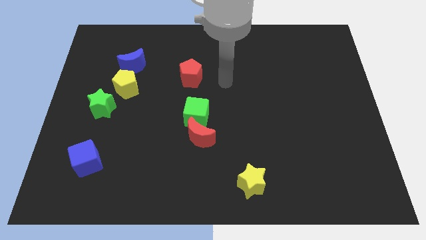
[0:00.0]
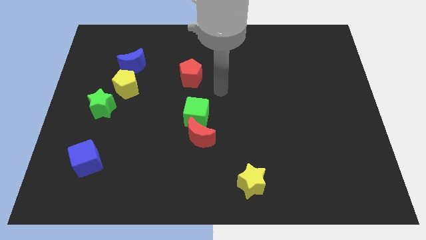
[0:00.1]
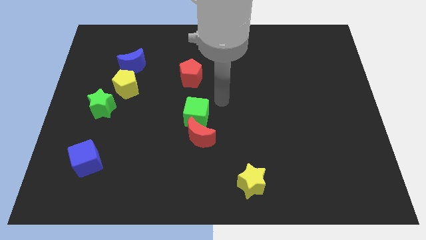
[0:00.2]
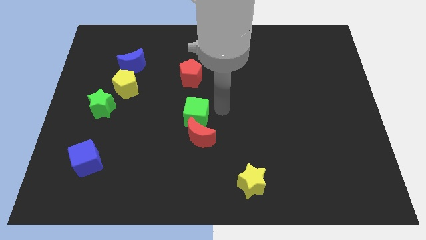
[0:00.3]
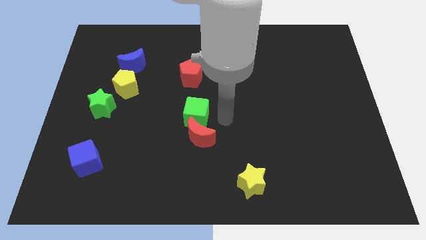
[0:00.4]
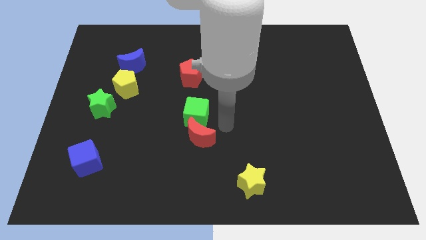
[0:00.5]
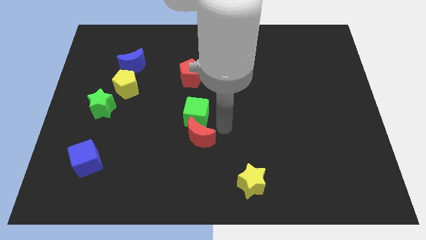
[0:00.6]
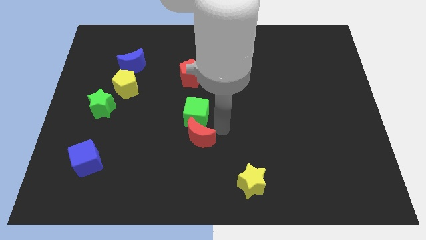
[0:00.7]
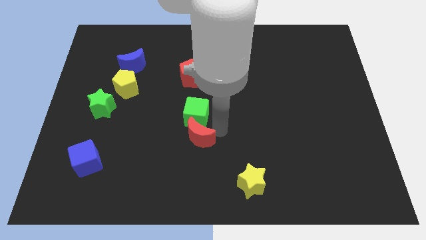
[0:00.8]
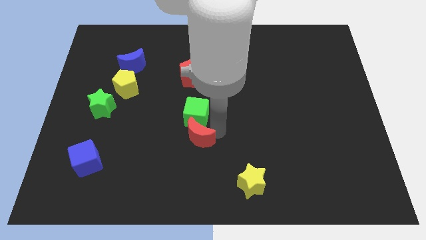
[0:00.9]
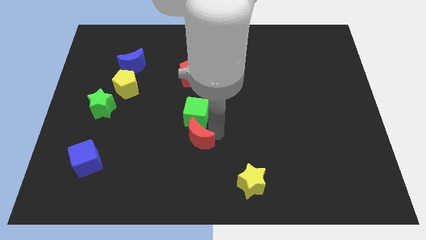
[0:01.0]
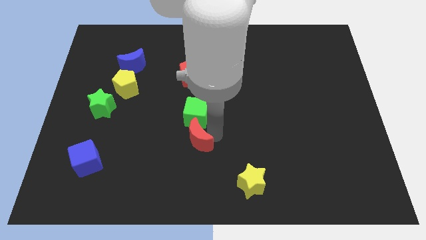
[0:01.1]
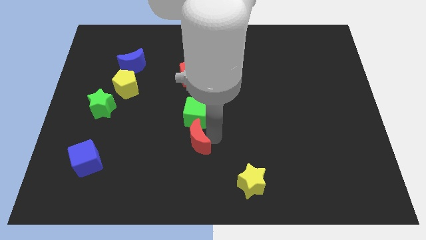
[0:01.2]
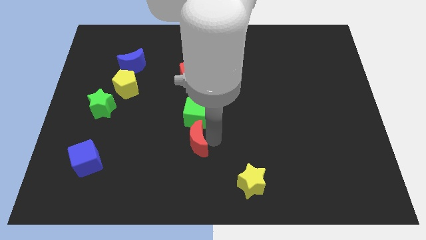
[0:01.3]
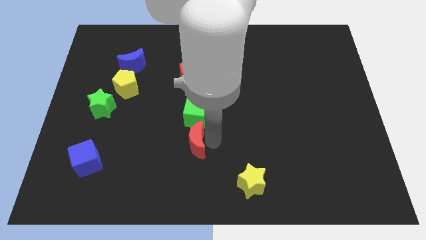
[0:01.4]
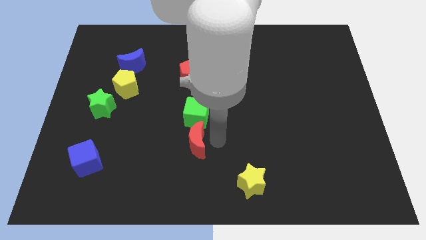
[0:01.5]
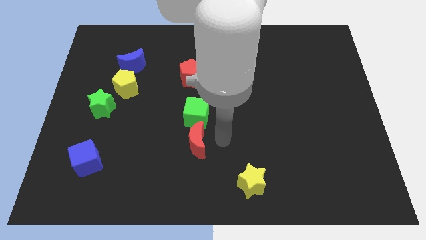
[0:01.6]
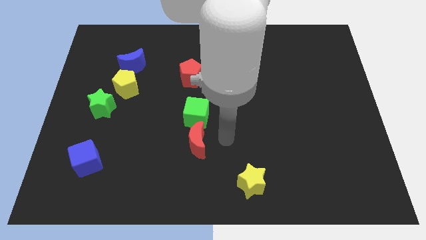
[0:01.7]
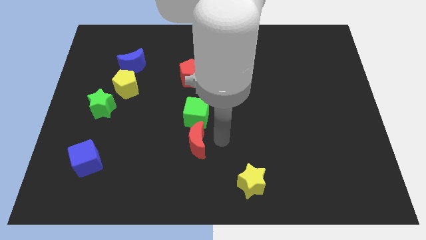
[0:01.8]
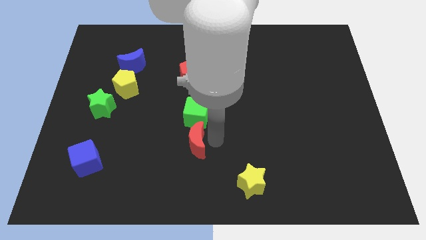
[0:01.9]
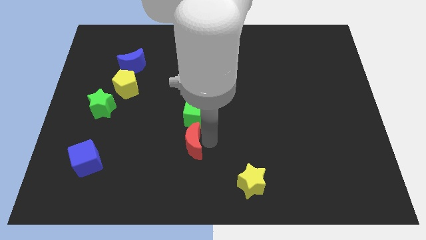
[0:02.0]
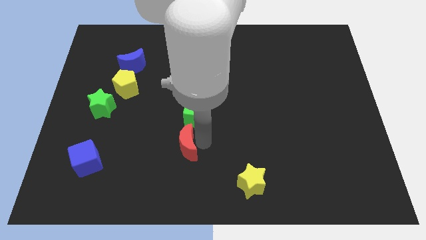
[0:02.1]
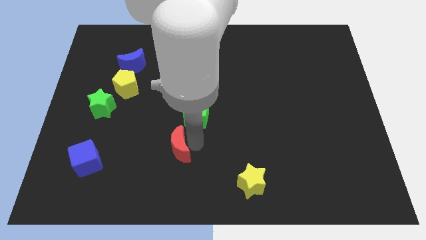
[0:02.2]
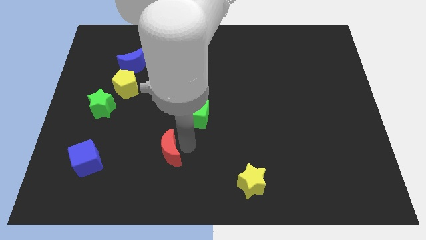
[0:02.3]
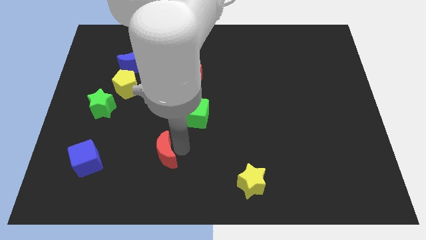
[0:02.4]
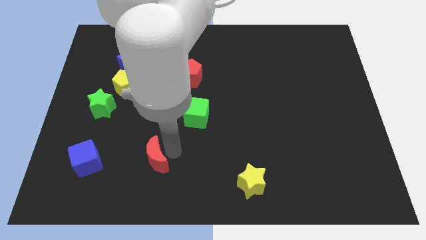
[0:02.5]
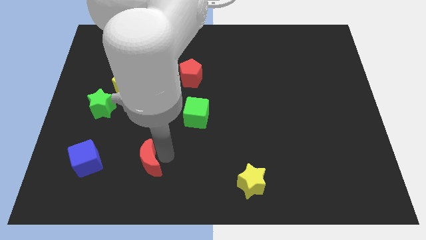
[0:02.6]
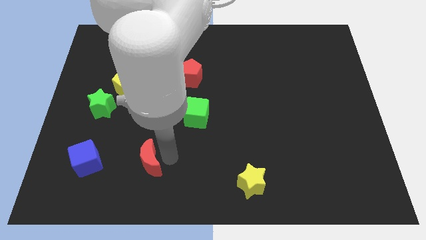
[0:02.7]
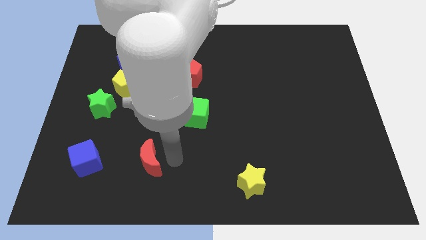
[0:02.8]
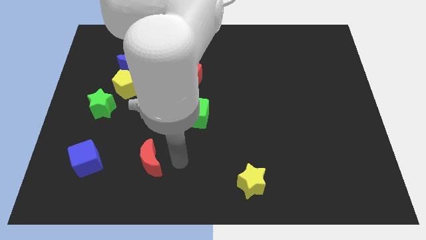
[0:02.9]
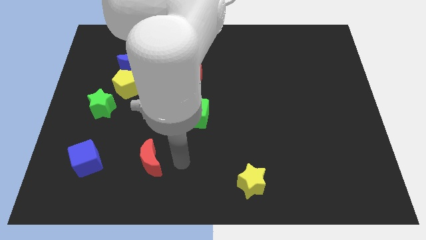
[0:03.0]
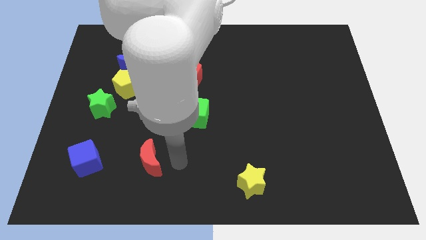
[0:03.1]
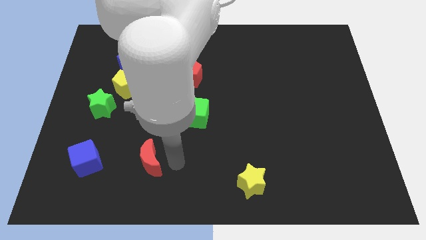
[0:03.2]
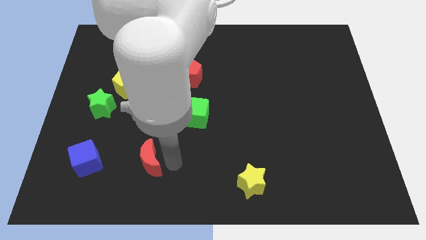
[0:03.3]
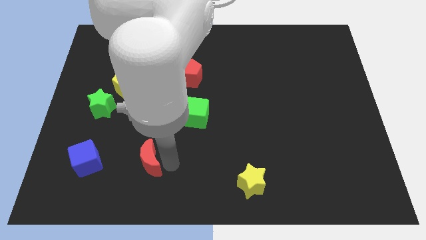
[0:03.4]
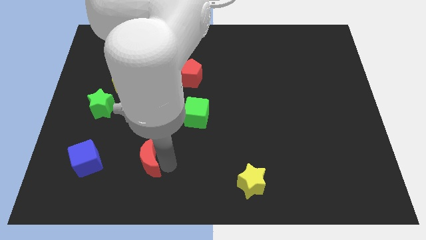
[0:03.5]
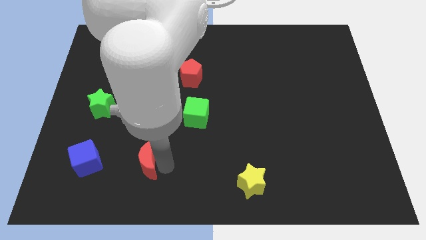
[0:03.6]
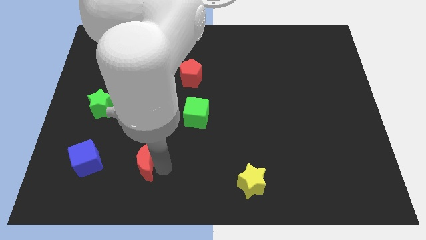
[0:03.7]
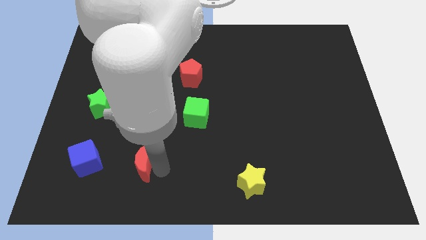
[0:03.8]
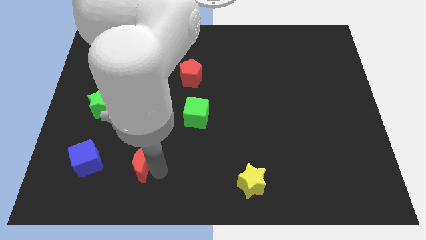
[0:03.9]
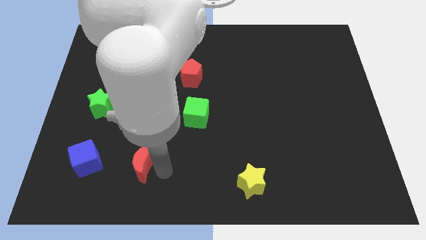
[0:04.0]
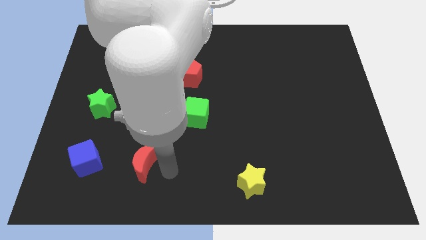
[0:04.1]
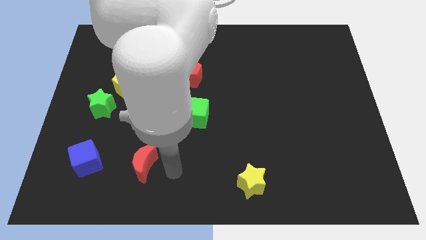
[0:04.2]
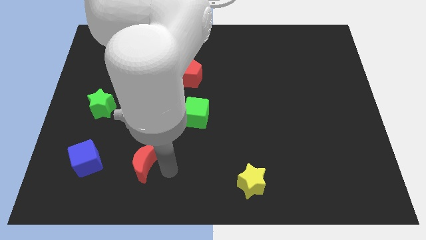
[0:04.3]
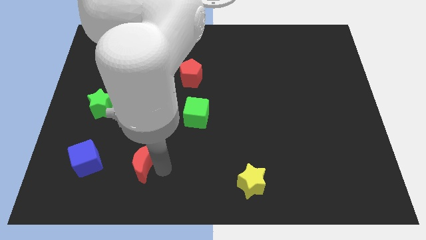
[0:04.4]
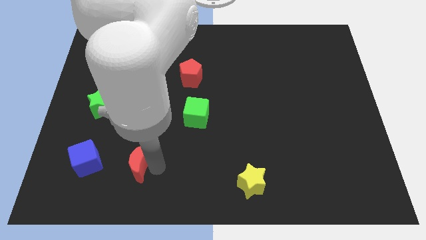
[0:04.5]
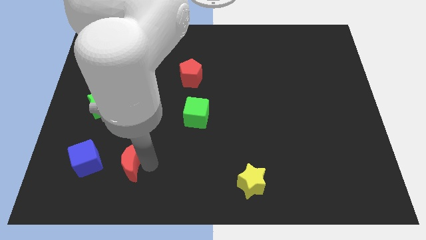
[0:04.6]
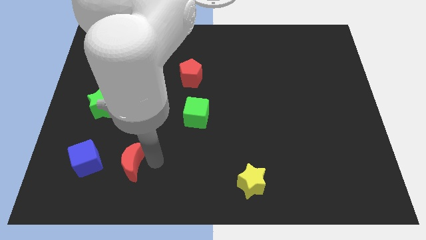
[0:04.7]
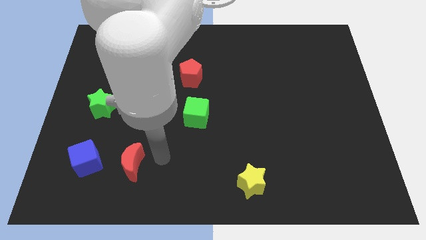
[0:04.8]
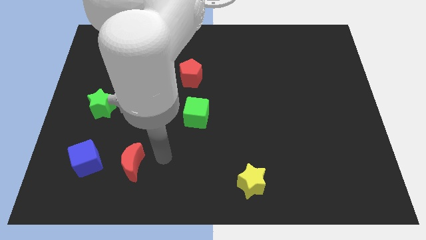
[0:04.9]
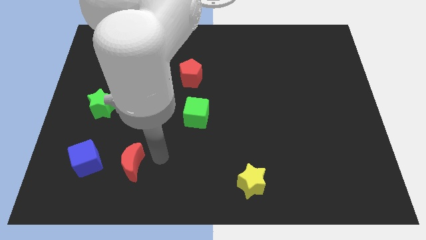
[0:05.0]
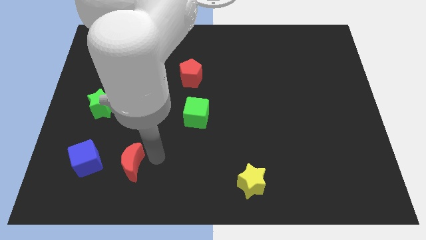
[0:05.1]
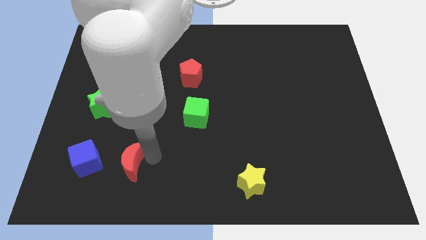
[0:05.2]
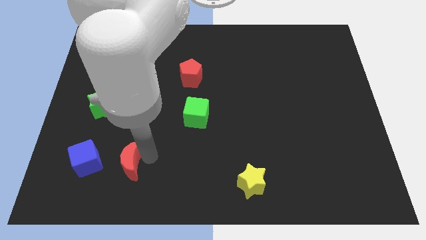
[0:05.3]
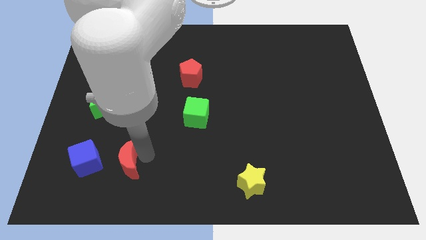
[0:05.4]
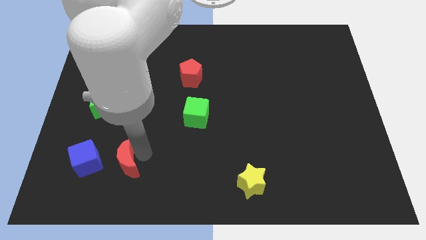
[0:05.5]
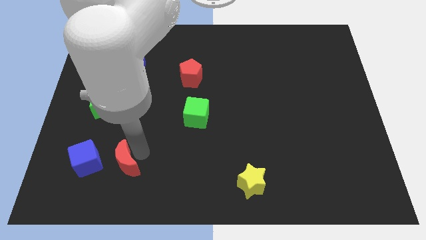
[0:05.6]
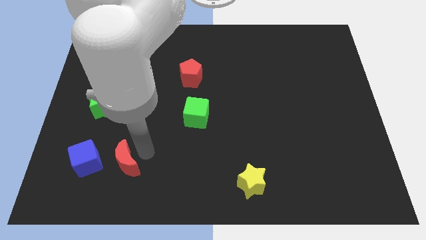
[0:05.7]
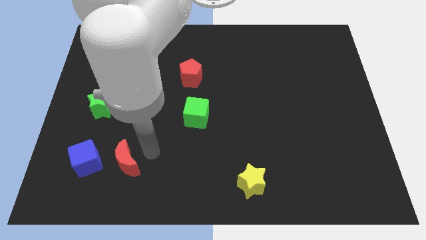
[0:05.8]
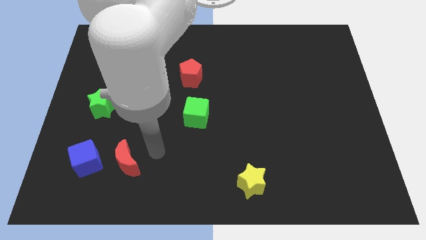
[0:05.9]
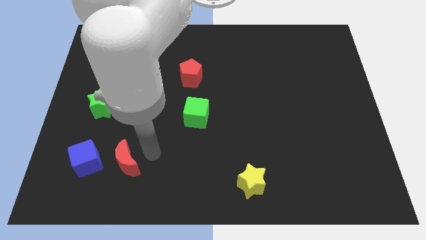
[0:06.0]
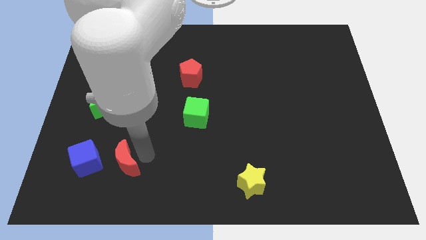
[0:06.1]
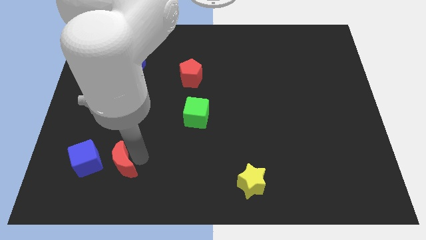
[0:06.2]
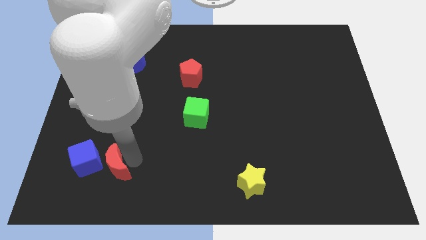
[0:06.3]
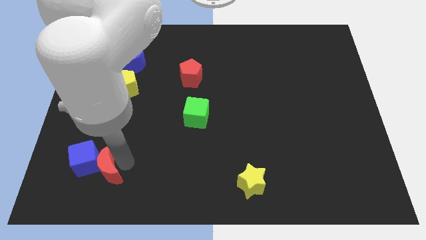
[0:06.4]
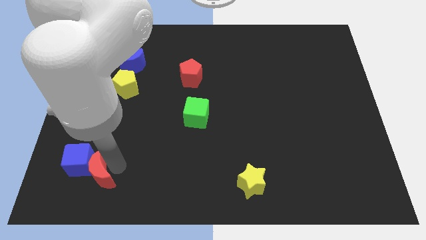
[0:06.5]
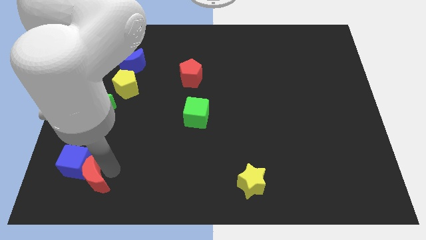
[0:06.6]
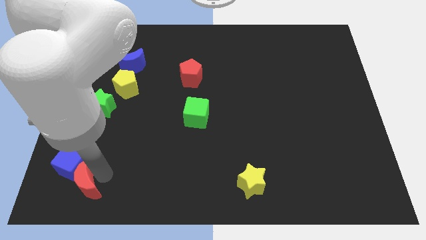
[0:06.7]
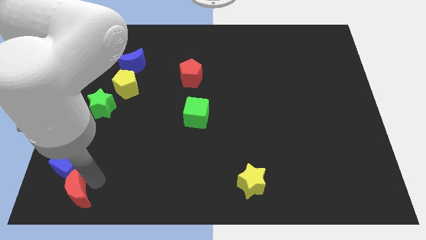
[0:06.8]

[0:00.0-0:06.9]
slide the red moon to the bottom left corner

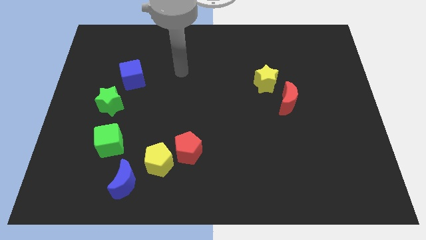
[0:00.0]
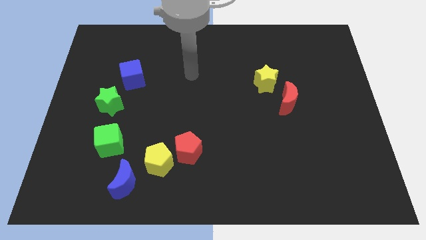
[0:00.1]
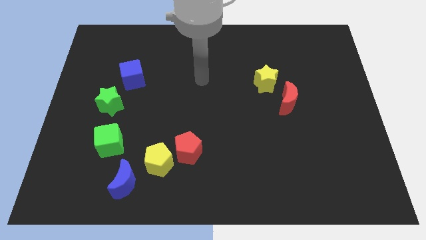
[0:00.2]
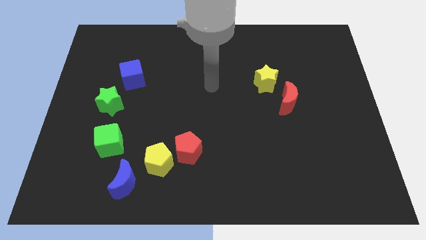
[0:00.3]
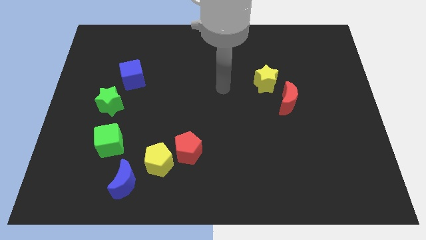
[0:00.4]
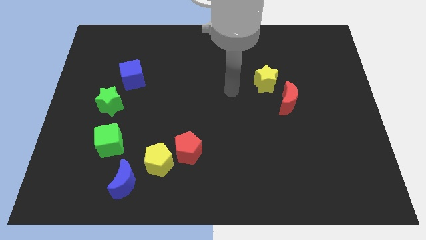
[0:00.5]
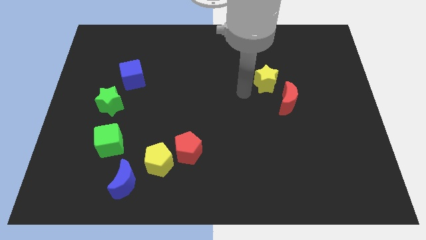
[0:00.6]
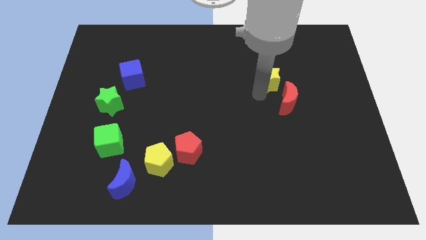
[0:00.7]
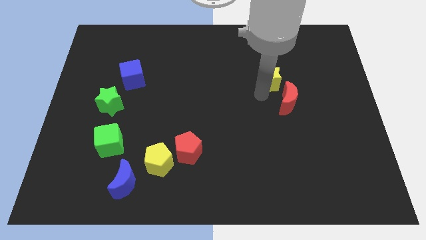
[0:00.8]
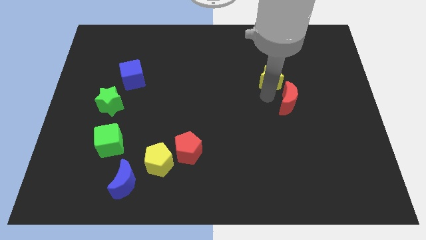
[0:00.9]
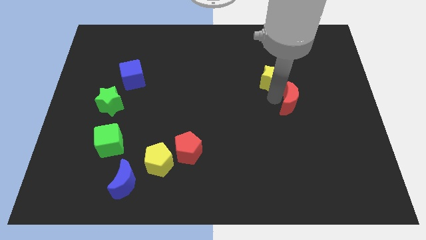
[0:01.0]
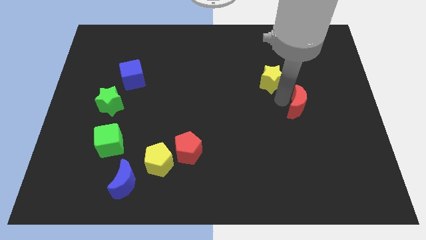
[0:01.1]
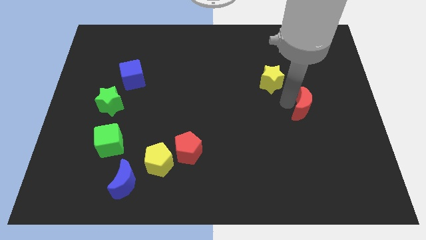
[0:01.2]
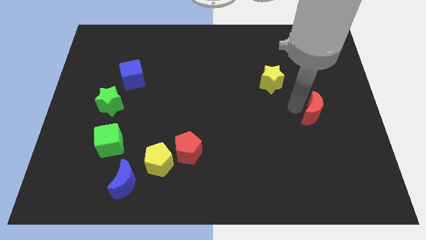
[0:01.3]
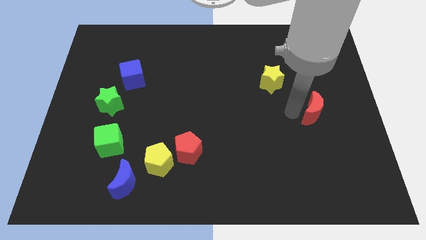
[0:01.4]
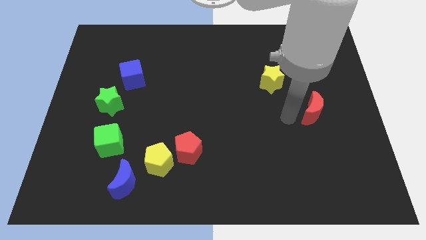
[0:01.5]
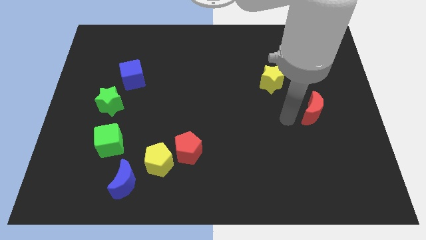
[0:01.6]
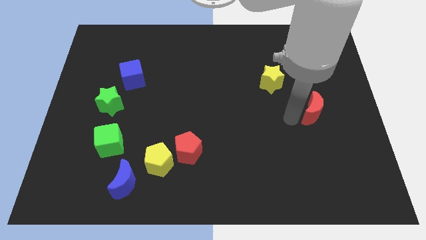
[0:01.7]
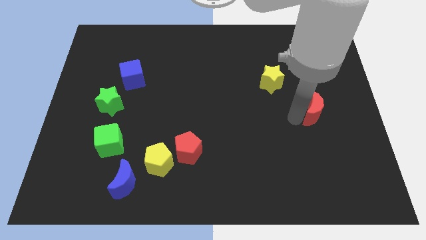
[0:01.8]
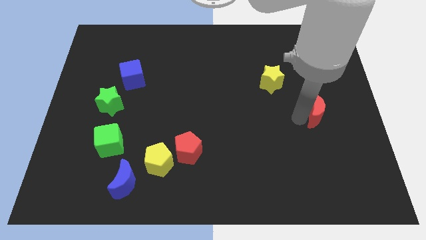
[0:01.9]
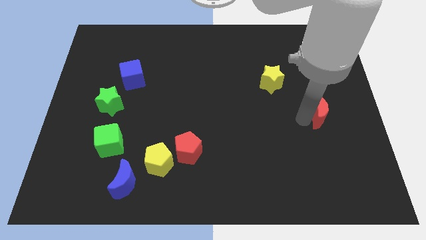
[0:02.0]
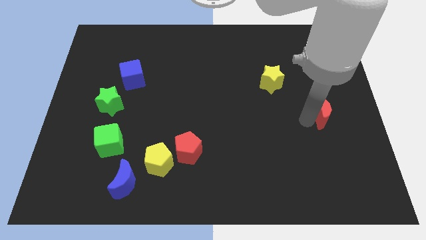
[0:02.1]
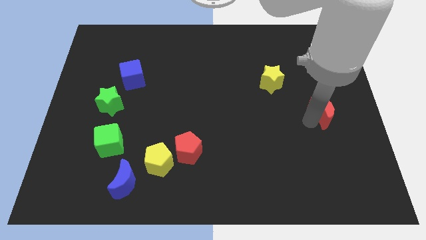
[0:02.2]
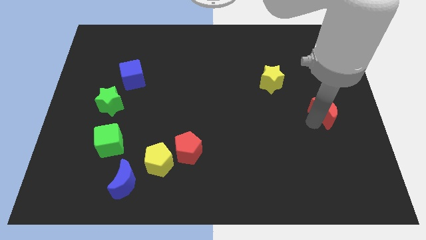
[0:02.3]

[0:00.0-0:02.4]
put the red moon to the right side
